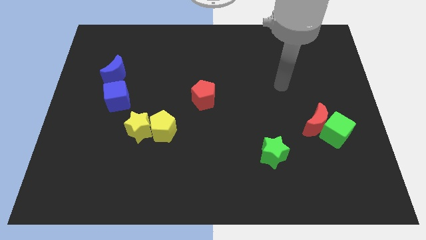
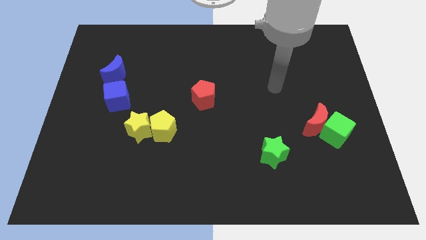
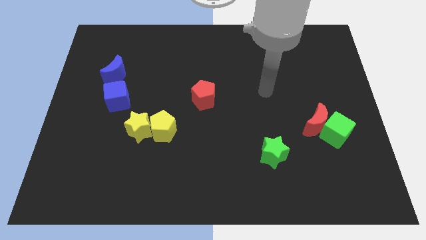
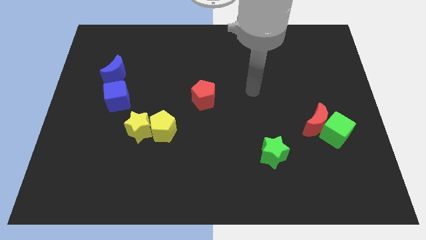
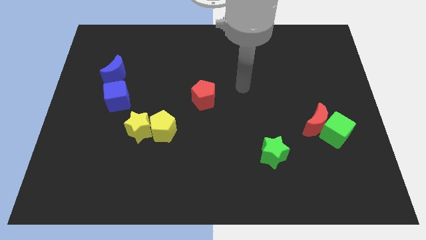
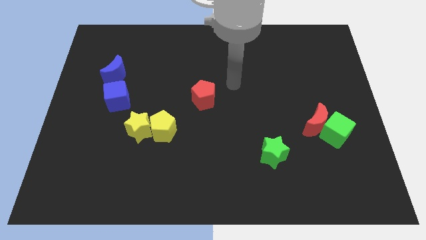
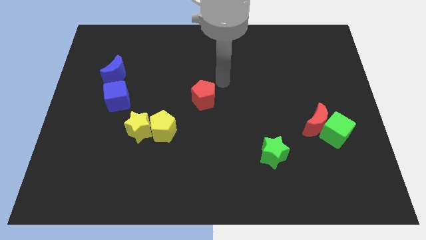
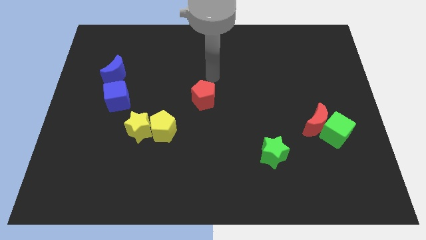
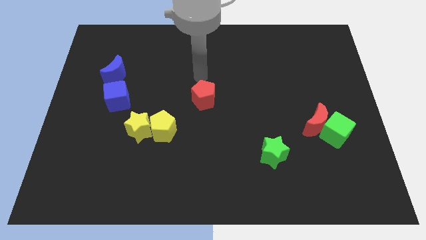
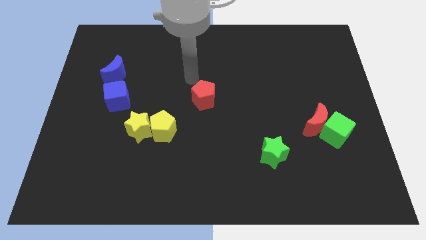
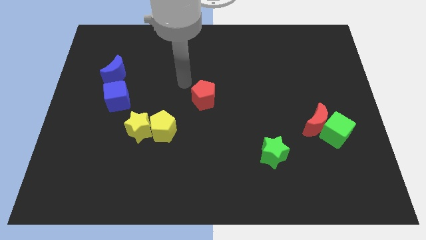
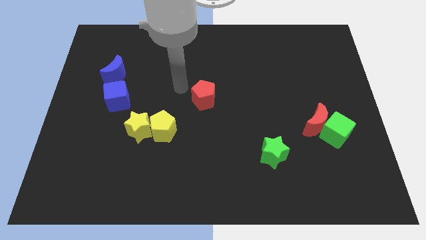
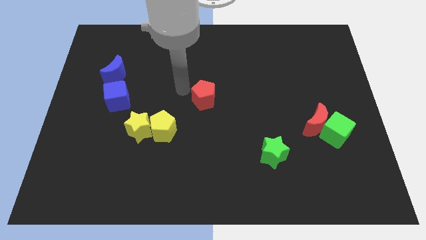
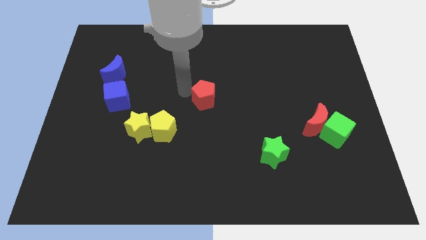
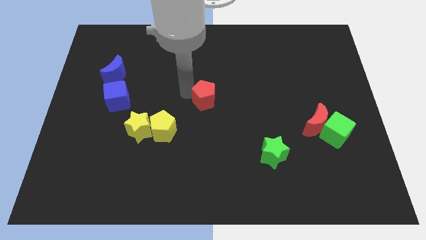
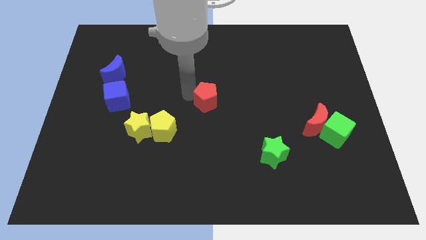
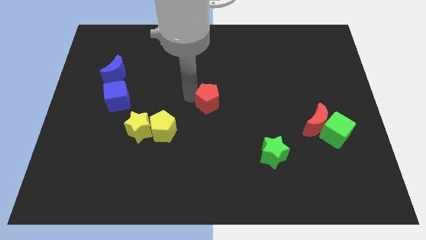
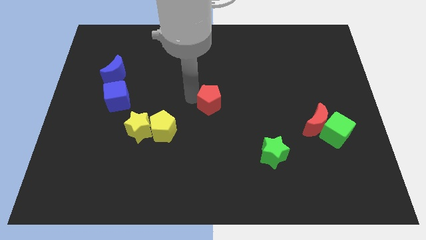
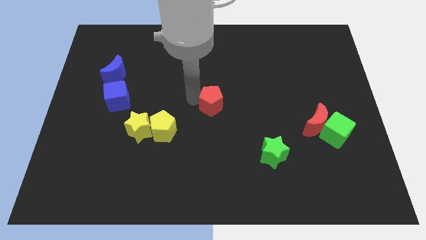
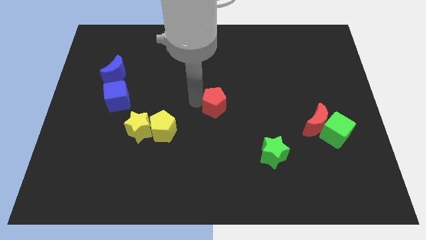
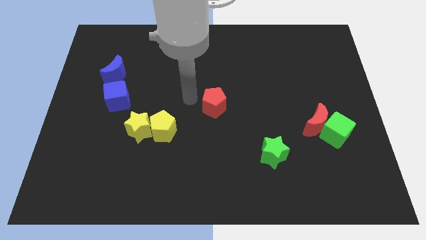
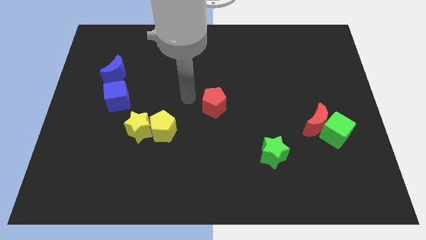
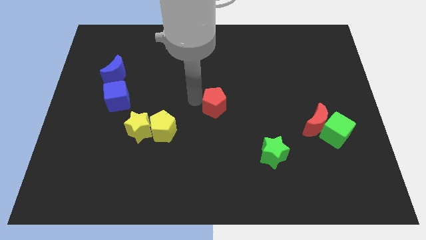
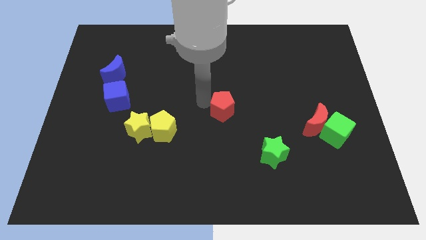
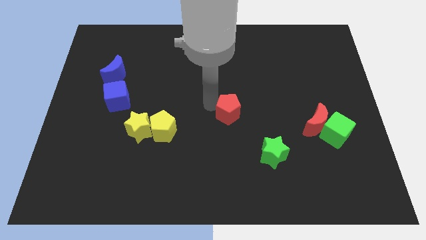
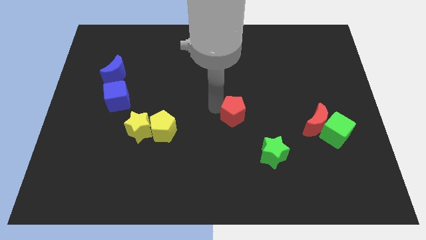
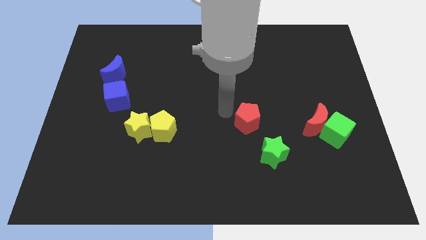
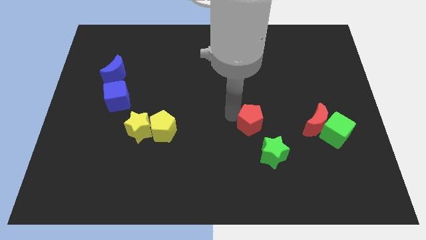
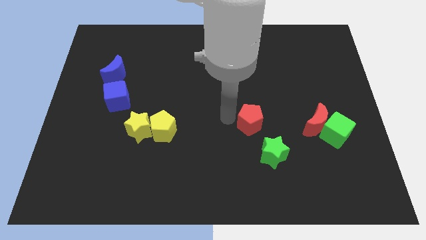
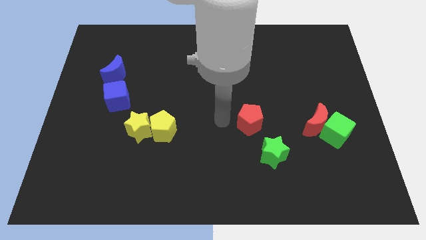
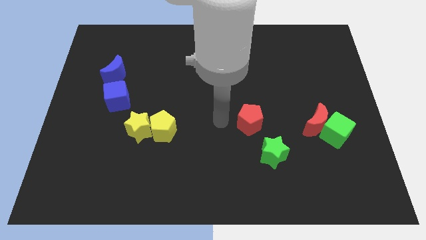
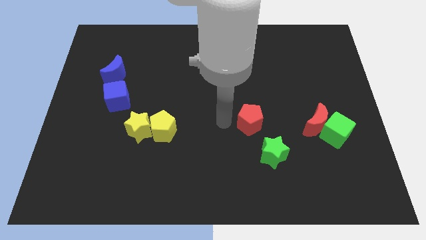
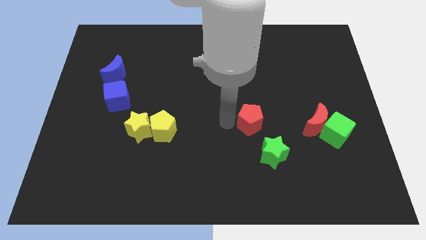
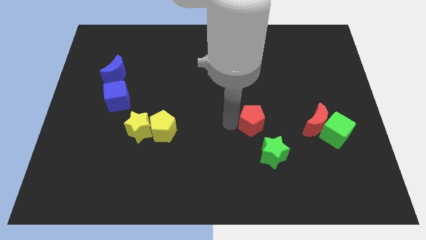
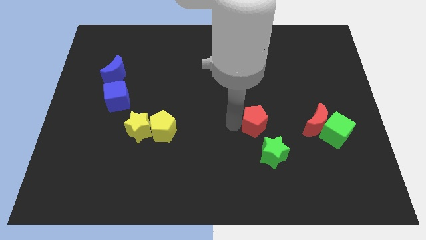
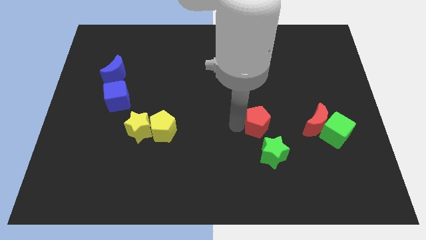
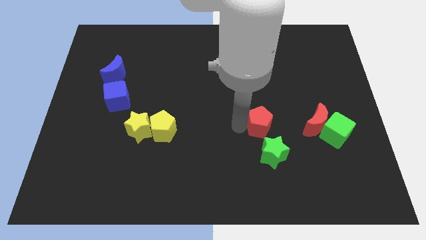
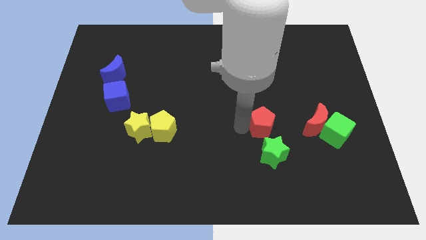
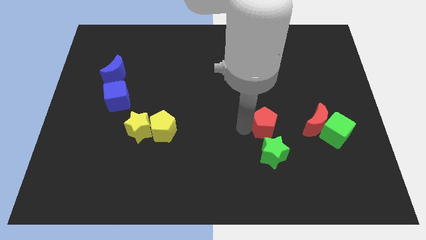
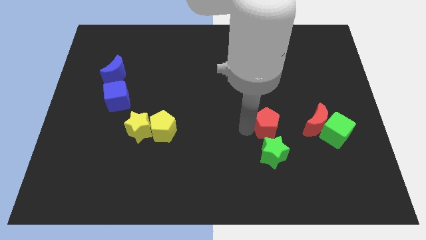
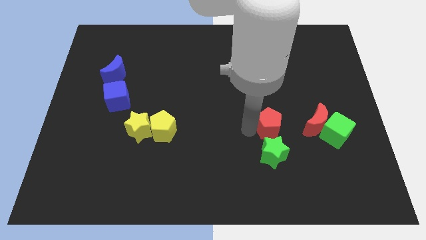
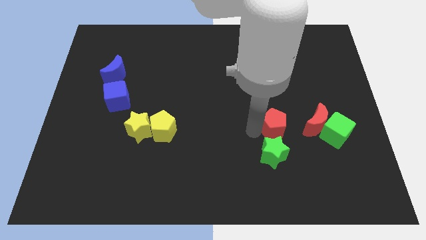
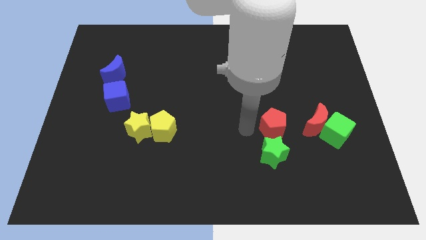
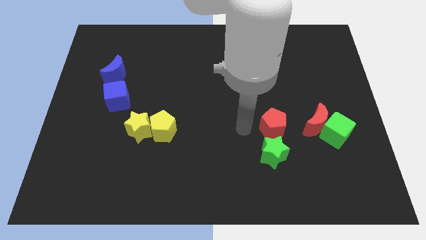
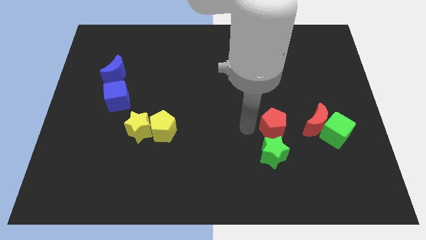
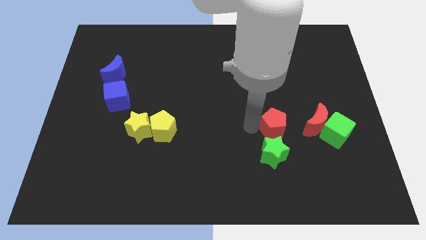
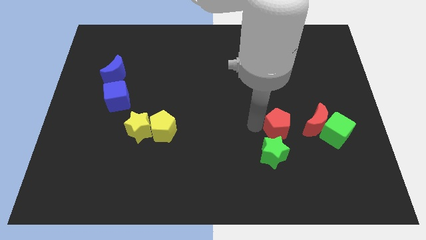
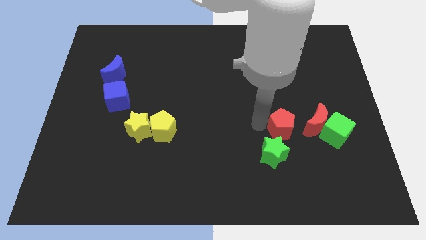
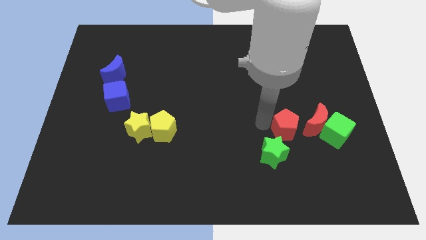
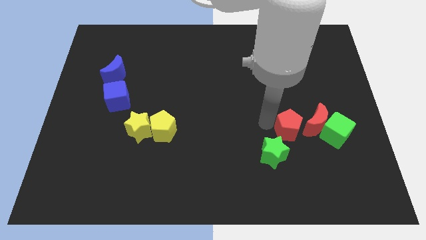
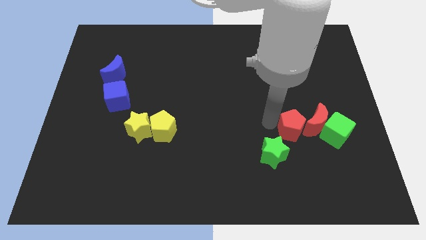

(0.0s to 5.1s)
push the red pentagon to the red moon

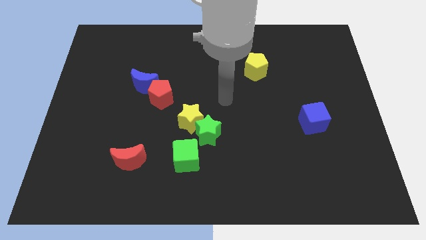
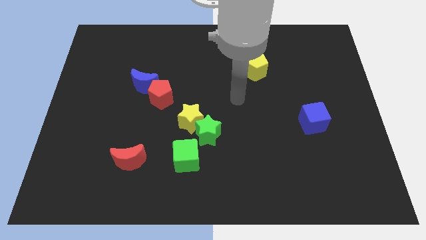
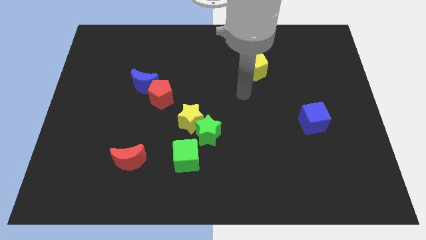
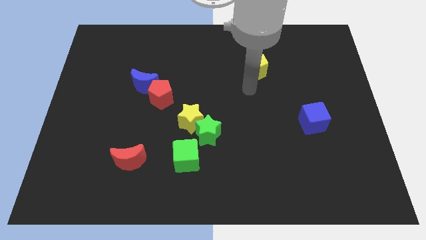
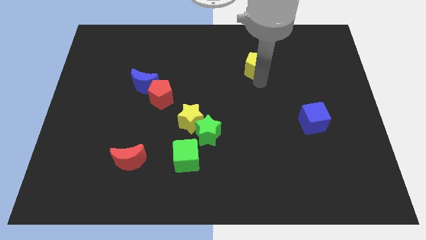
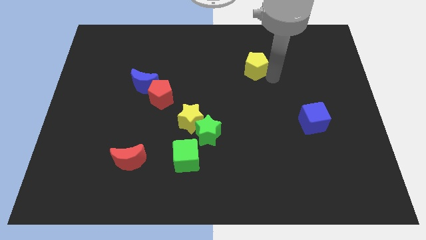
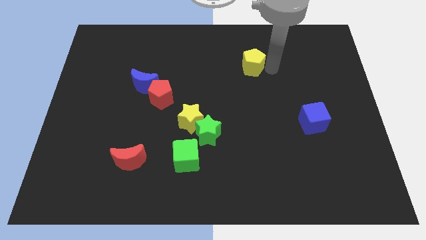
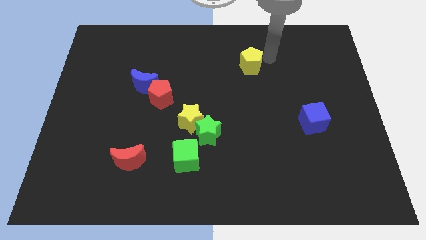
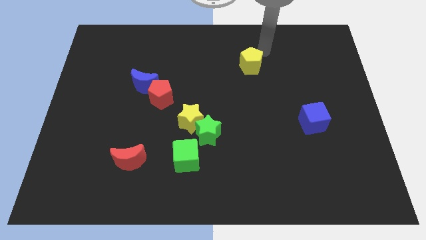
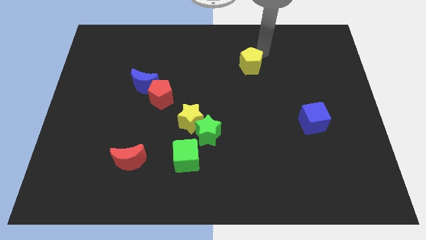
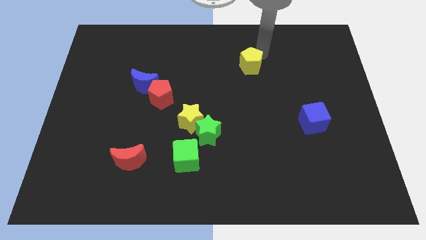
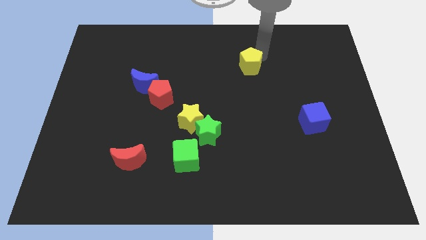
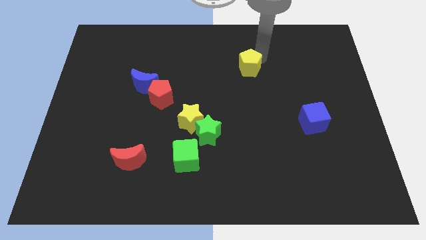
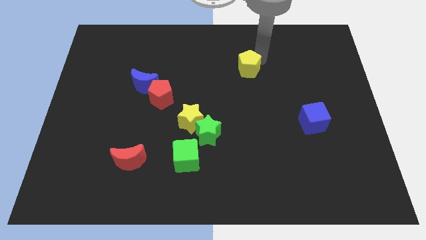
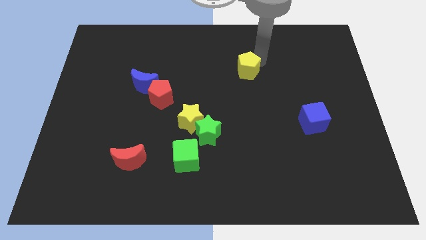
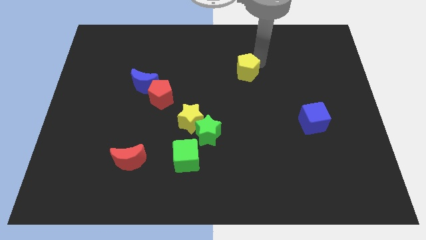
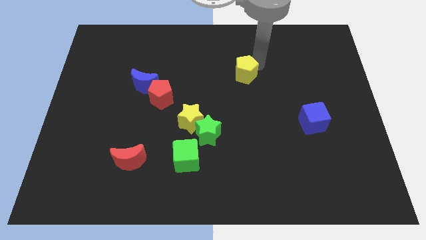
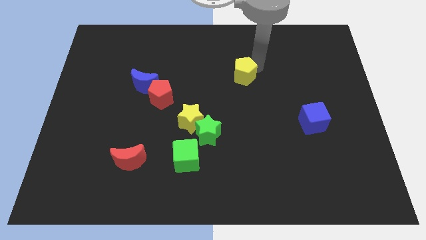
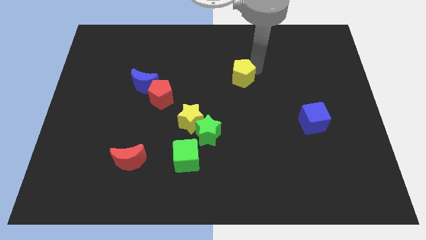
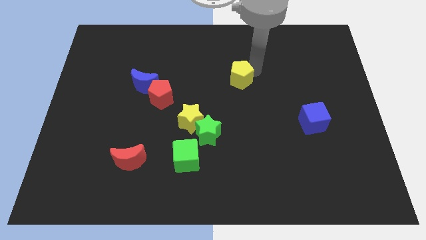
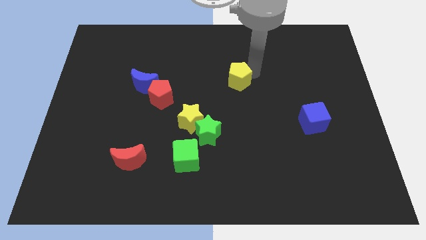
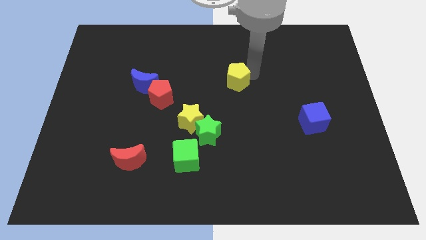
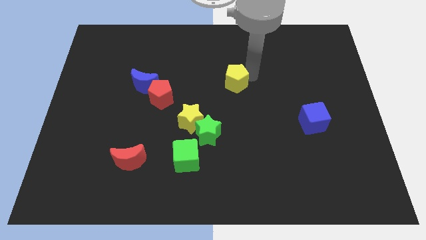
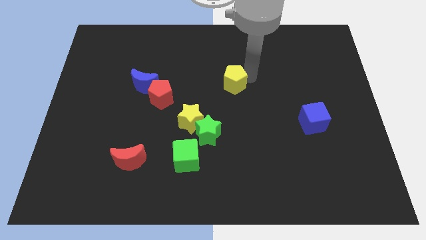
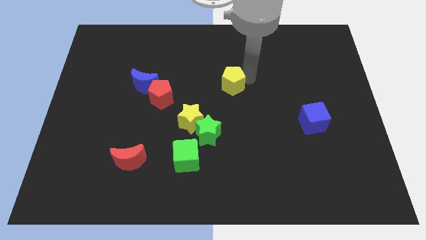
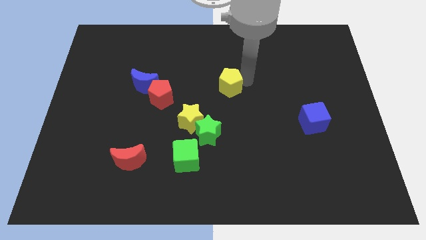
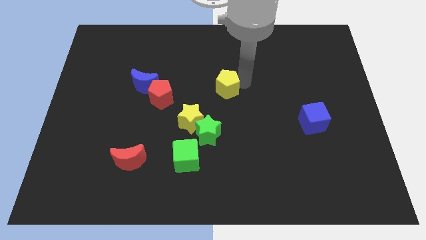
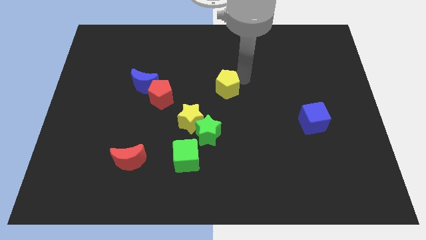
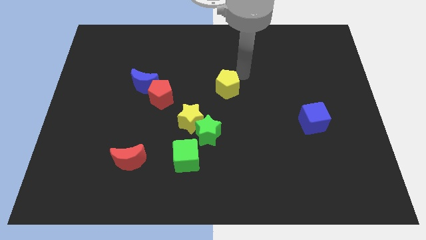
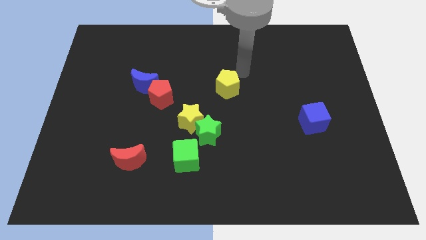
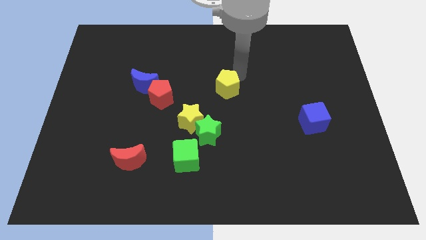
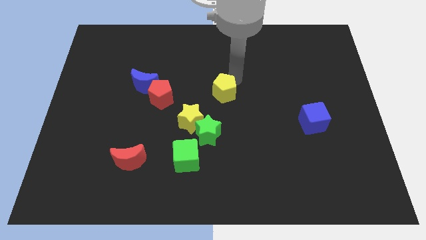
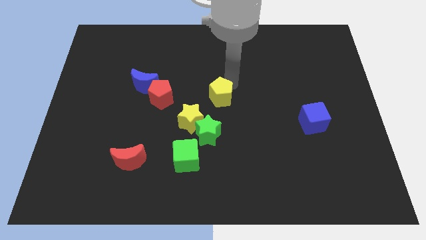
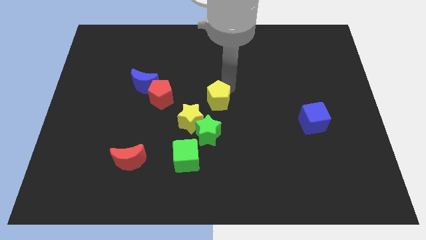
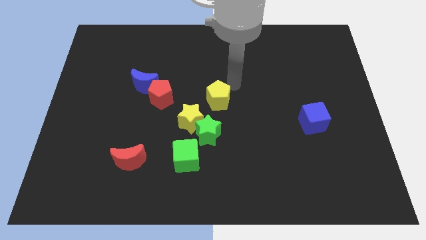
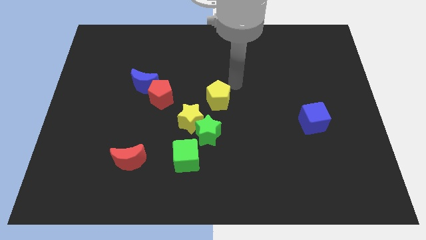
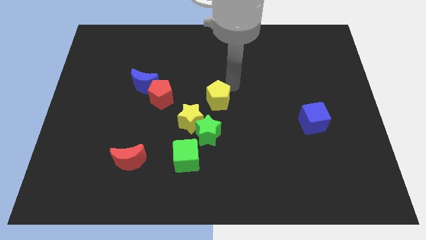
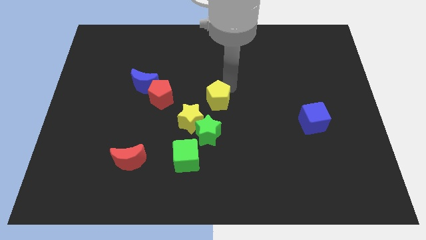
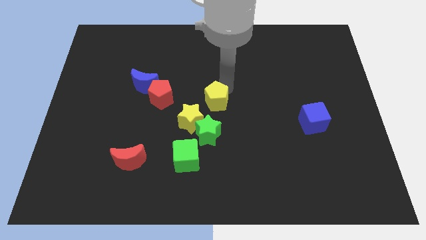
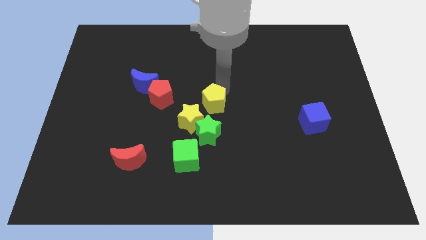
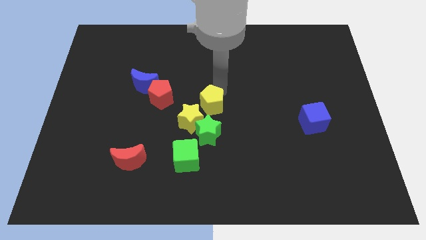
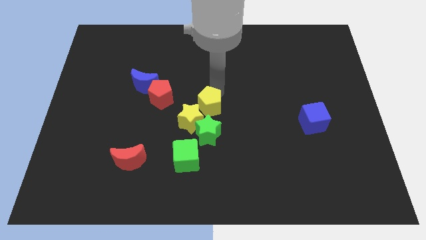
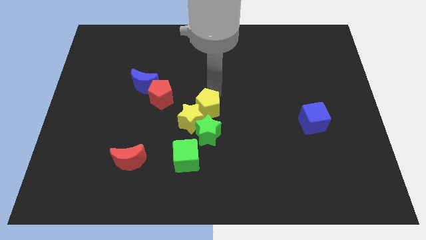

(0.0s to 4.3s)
push the yellow pentagon to the yellow star
